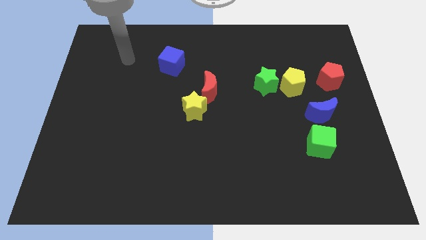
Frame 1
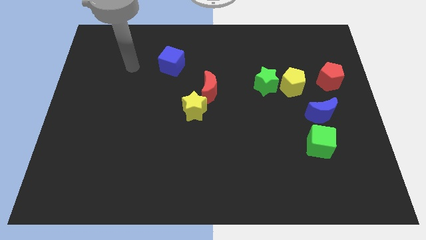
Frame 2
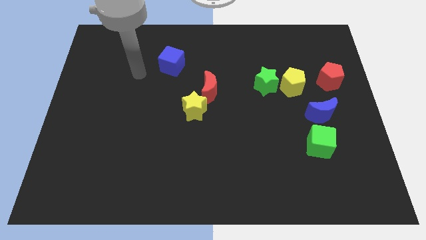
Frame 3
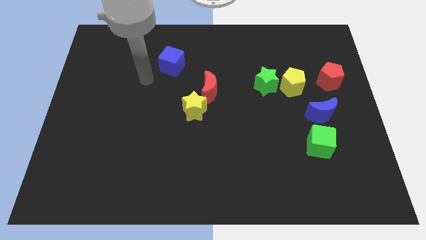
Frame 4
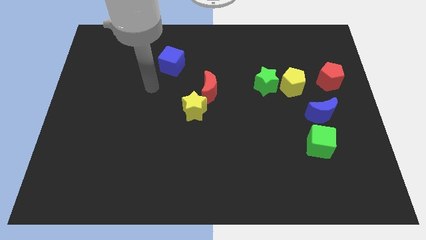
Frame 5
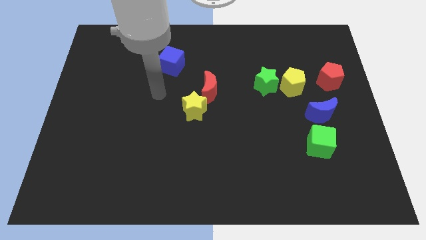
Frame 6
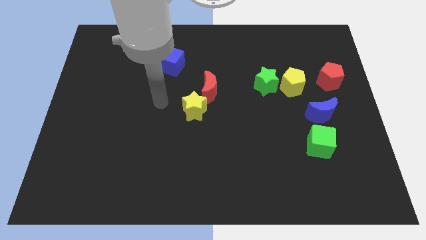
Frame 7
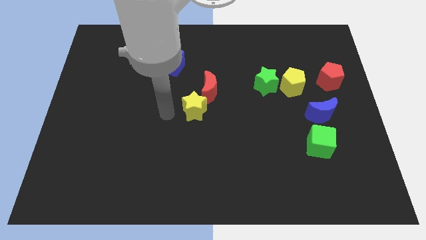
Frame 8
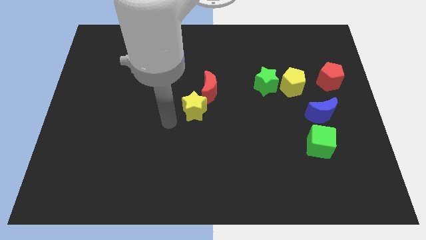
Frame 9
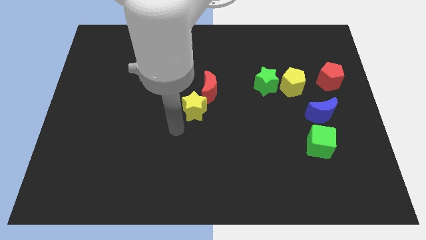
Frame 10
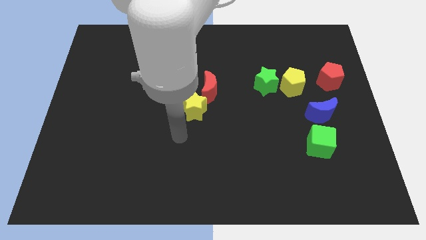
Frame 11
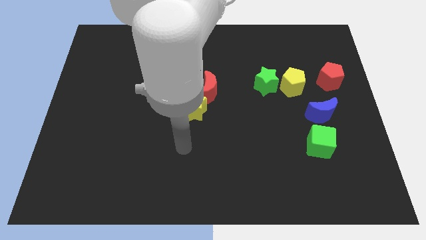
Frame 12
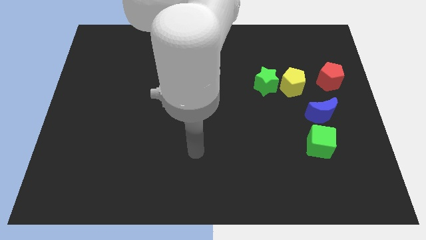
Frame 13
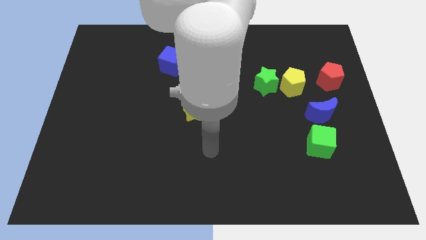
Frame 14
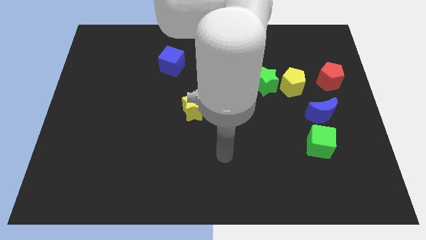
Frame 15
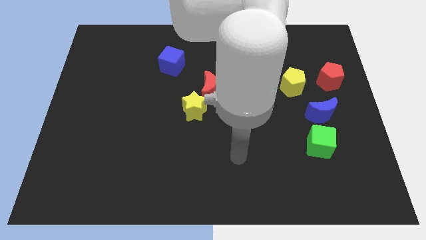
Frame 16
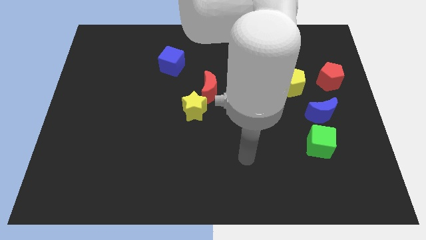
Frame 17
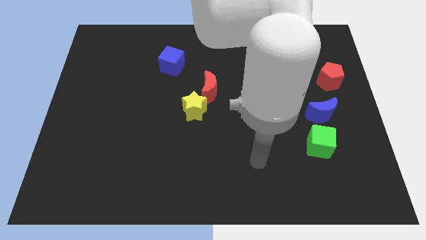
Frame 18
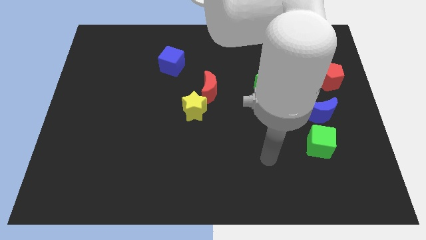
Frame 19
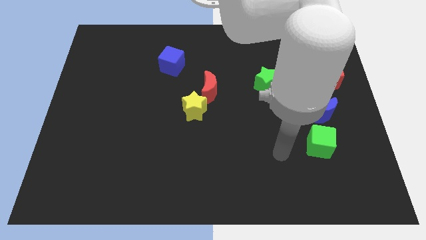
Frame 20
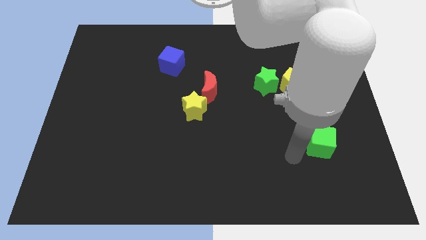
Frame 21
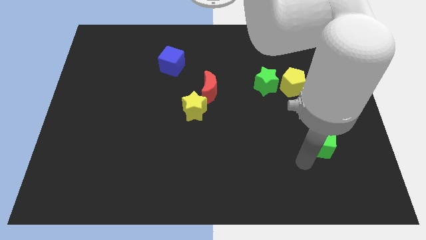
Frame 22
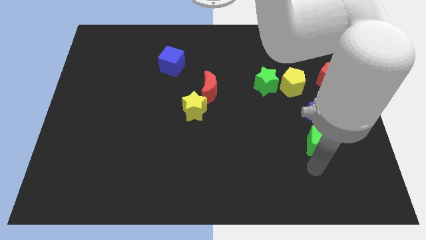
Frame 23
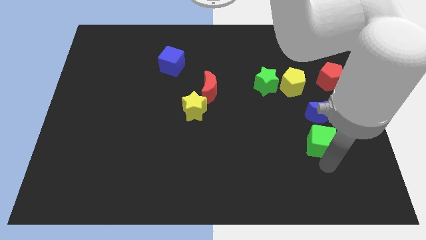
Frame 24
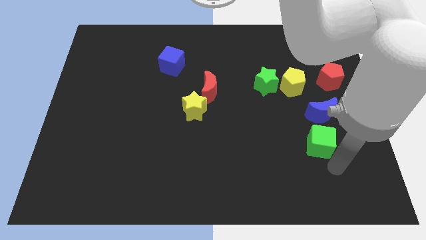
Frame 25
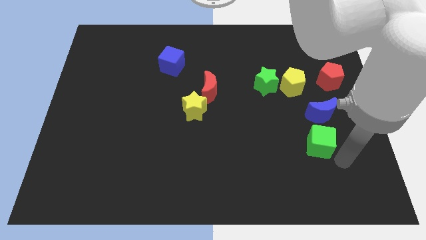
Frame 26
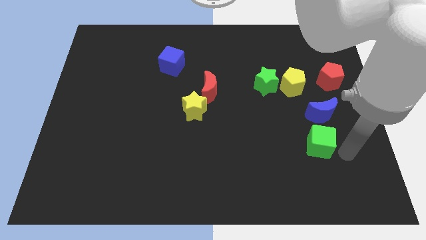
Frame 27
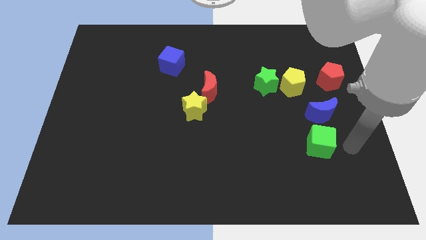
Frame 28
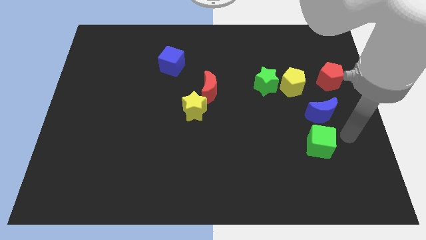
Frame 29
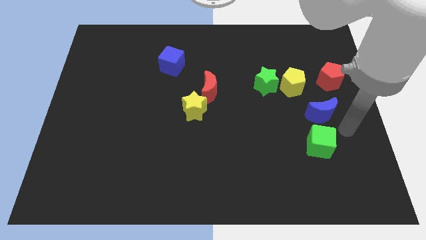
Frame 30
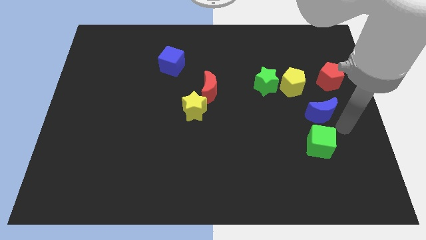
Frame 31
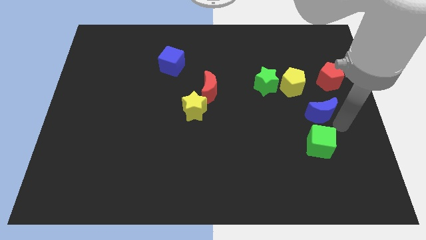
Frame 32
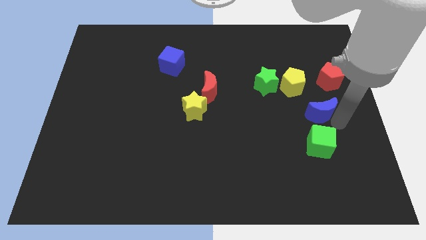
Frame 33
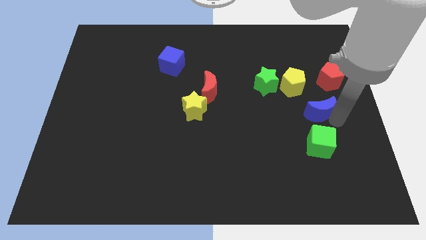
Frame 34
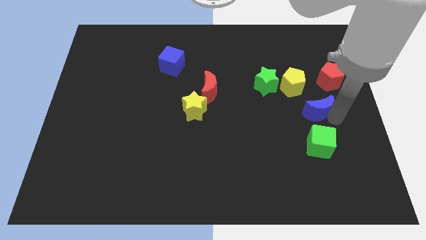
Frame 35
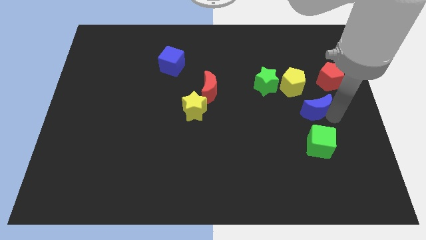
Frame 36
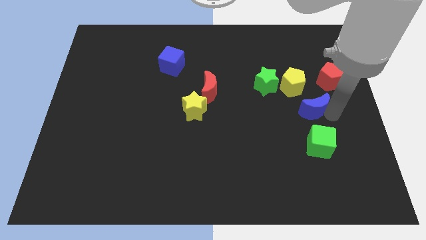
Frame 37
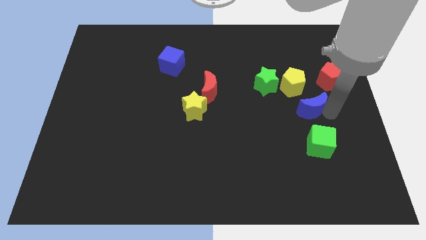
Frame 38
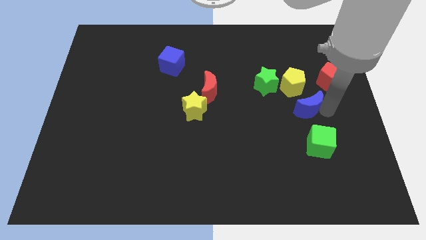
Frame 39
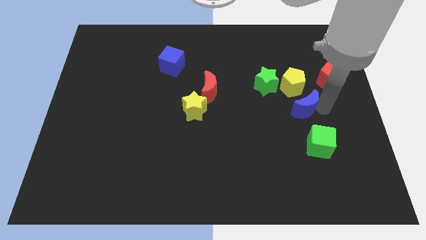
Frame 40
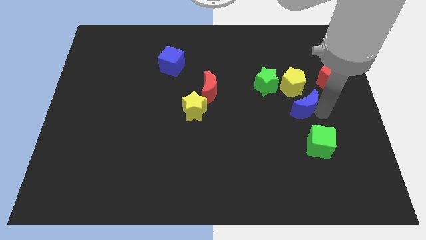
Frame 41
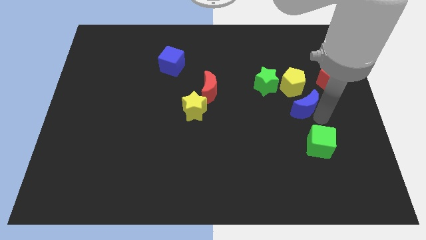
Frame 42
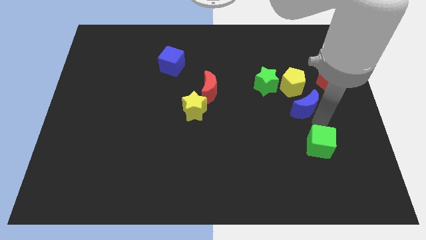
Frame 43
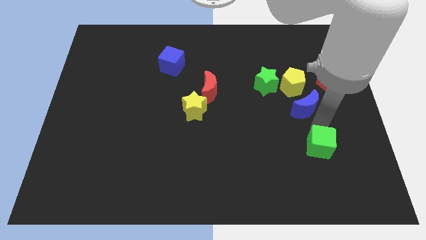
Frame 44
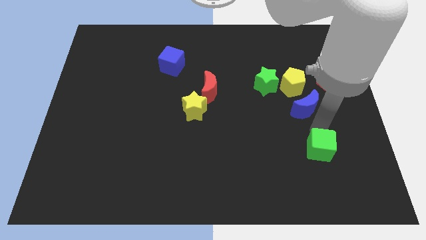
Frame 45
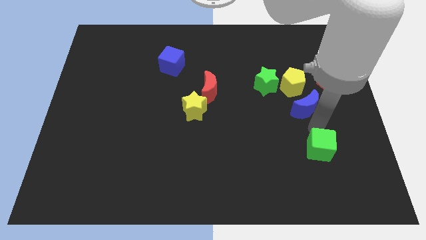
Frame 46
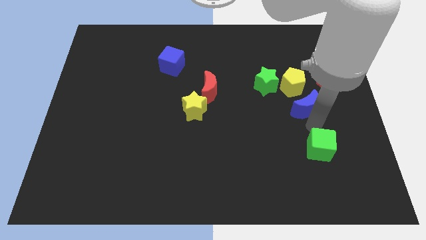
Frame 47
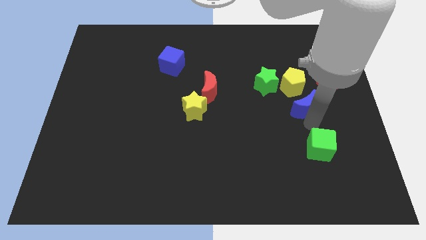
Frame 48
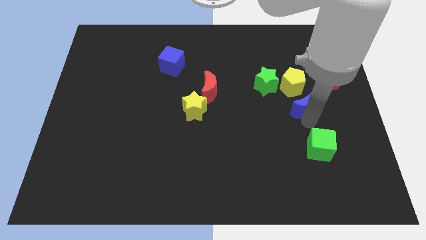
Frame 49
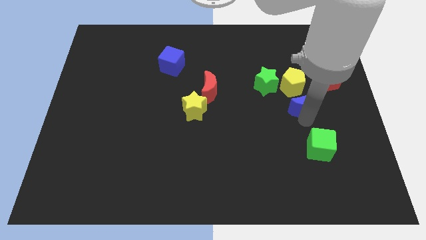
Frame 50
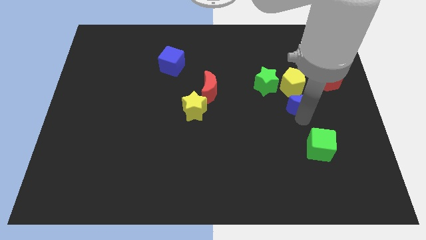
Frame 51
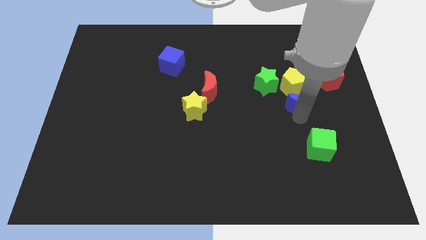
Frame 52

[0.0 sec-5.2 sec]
slide the blue moon close to the yellow pentagon

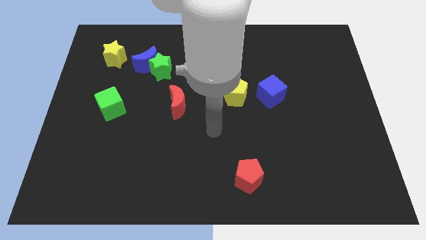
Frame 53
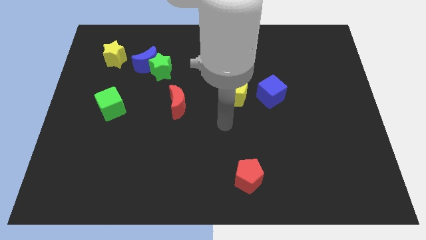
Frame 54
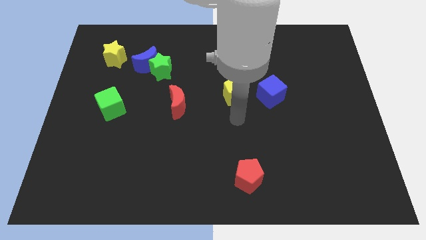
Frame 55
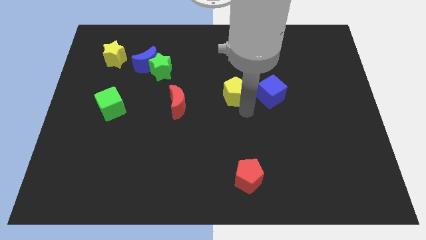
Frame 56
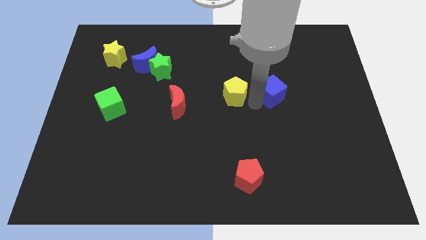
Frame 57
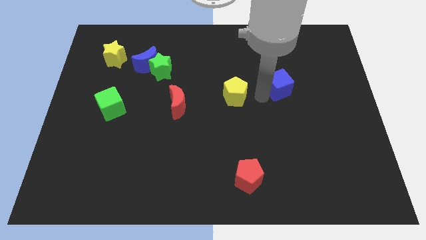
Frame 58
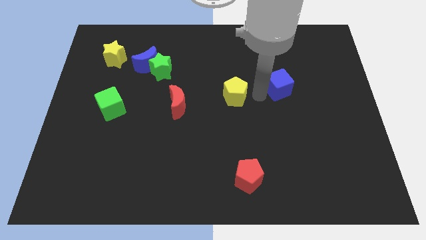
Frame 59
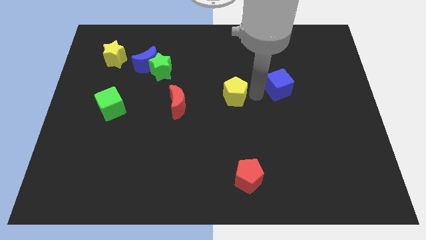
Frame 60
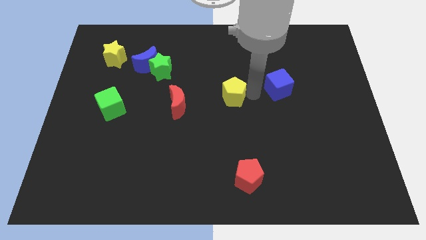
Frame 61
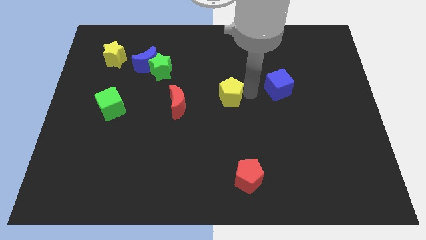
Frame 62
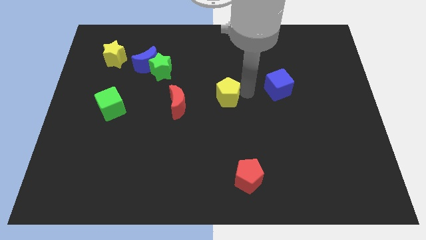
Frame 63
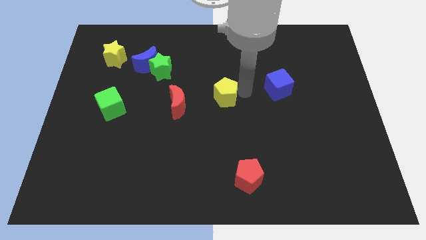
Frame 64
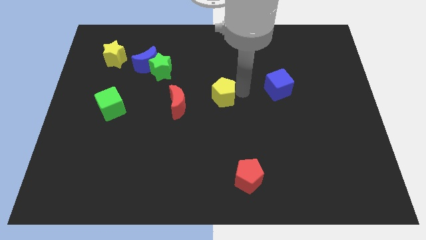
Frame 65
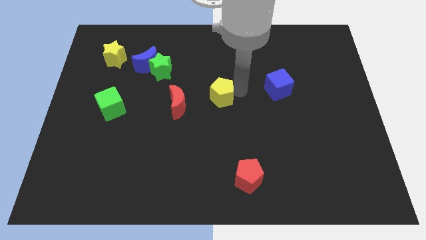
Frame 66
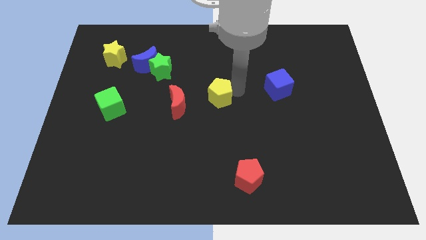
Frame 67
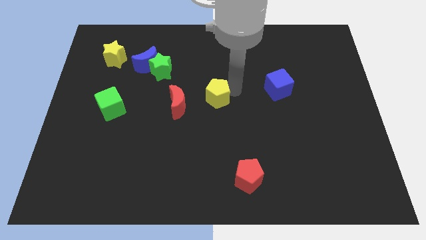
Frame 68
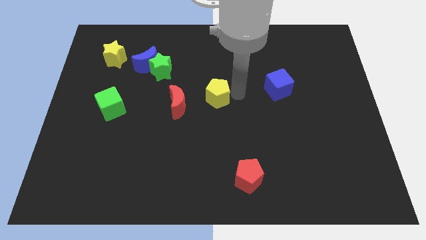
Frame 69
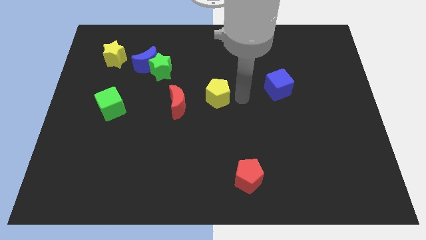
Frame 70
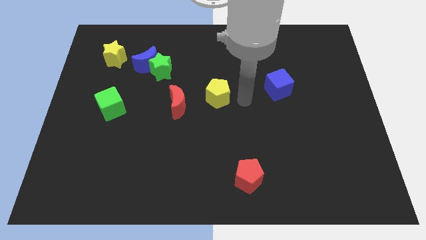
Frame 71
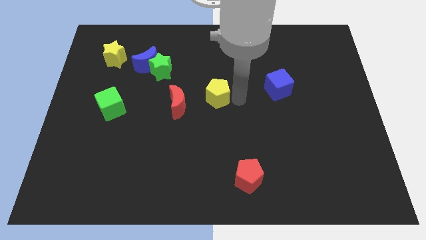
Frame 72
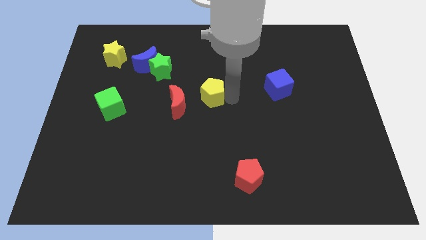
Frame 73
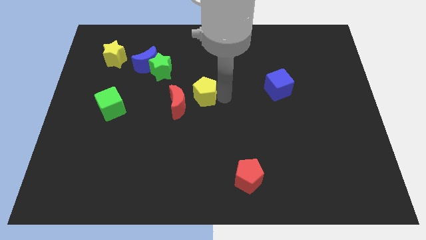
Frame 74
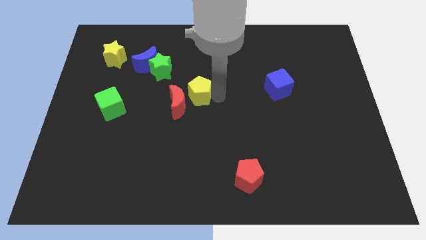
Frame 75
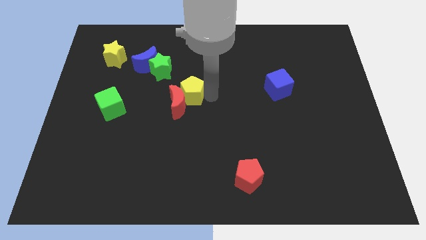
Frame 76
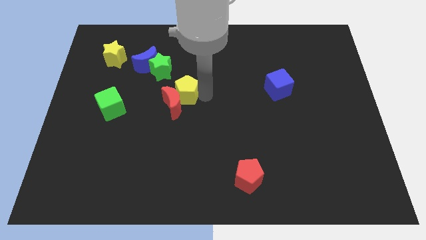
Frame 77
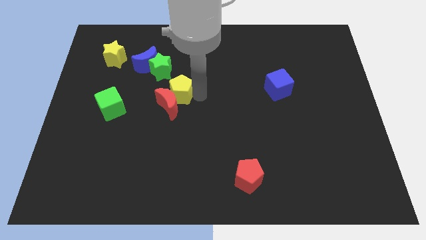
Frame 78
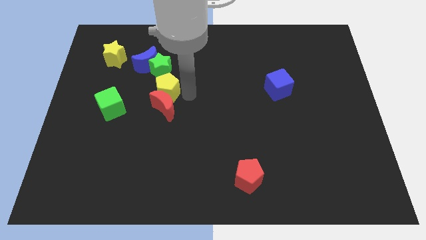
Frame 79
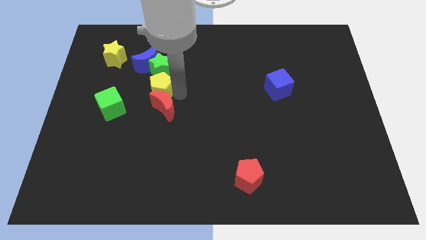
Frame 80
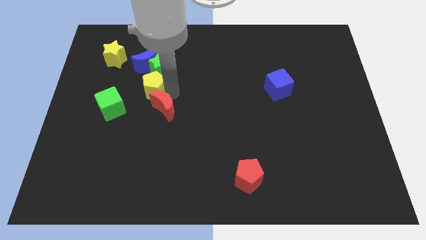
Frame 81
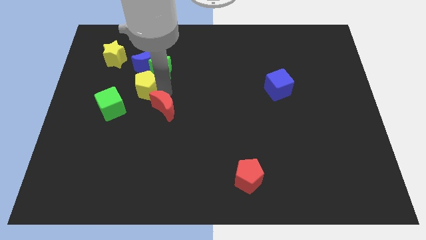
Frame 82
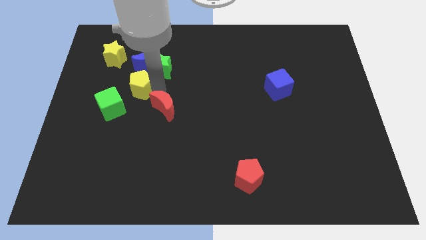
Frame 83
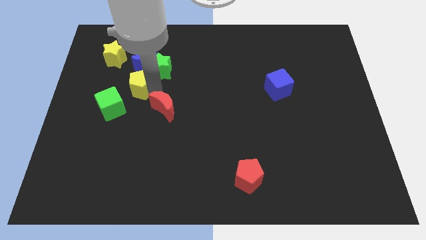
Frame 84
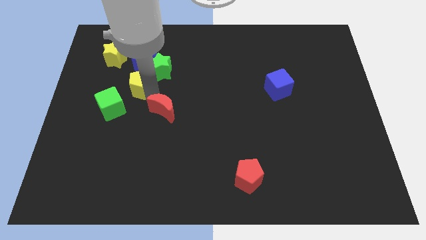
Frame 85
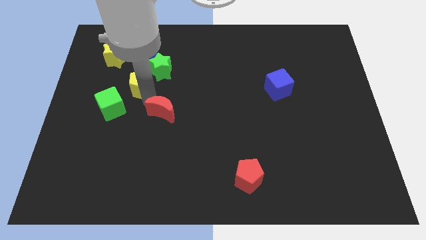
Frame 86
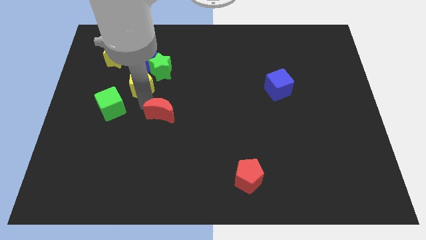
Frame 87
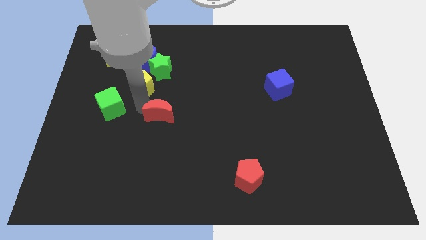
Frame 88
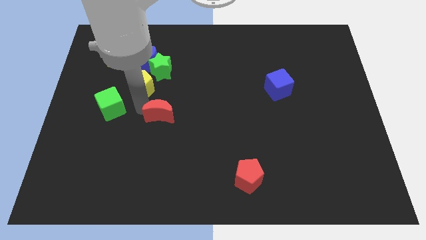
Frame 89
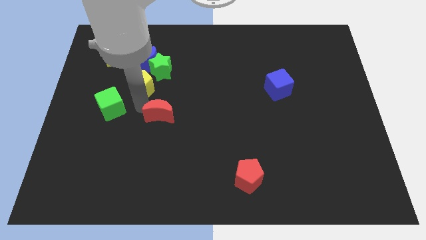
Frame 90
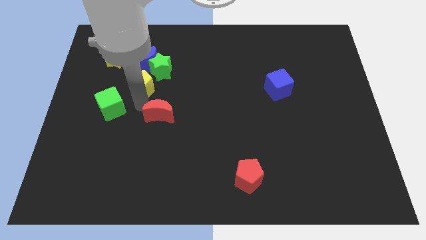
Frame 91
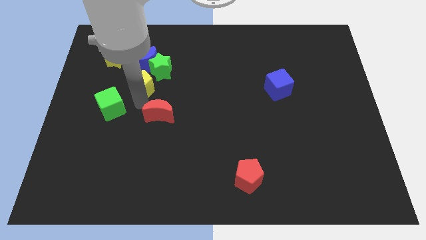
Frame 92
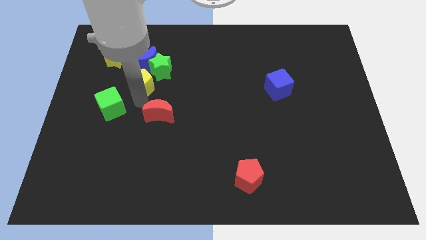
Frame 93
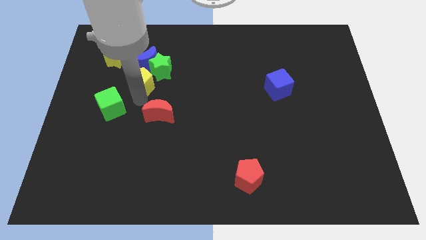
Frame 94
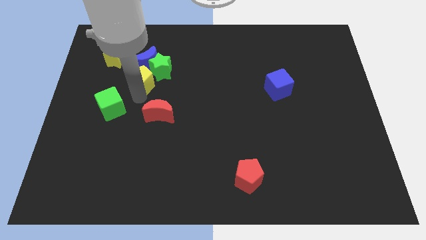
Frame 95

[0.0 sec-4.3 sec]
put the yellow pentagon to the blue moon
